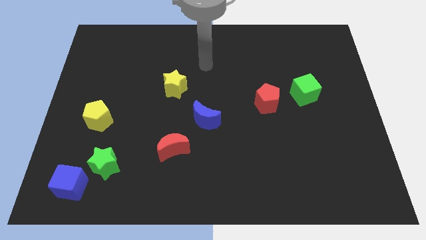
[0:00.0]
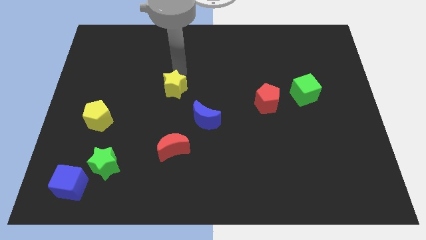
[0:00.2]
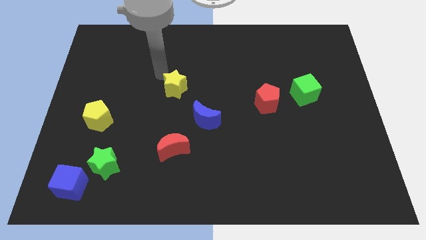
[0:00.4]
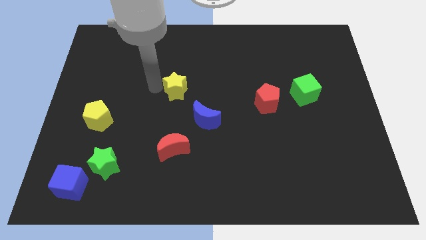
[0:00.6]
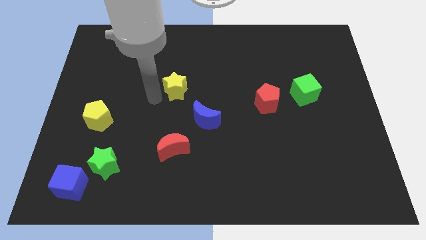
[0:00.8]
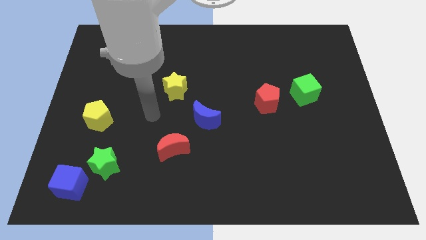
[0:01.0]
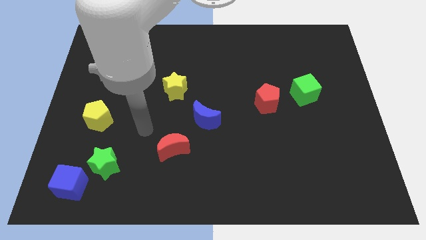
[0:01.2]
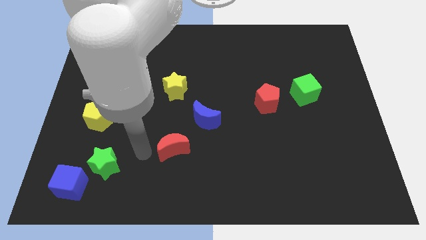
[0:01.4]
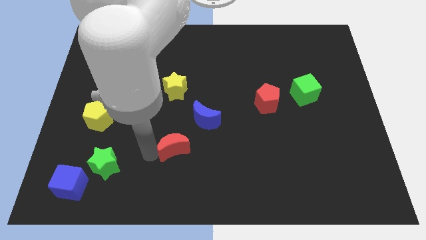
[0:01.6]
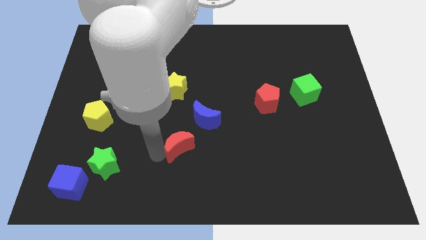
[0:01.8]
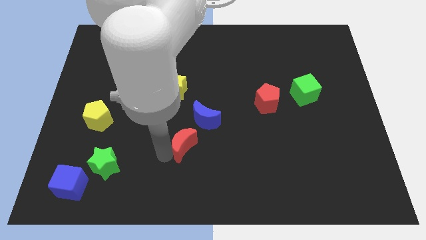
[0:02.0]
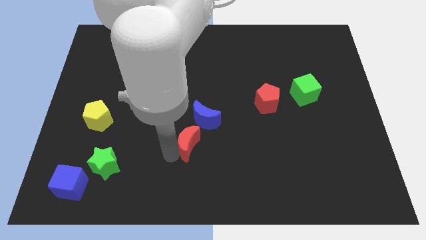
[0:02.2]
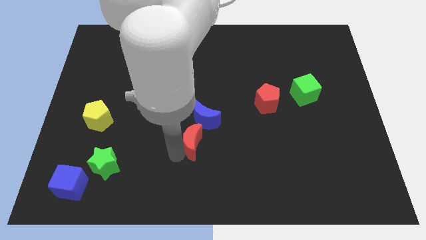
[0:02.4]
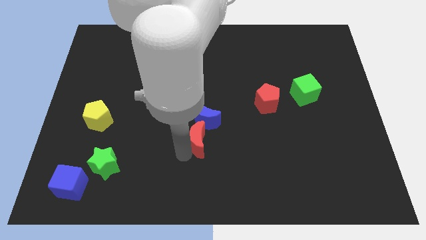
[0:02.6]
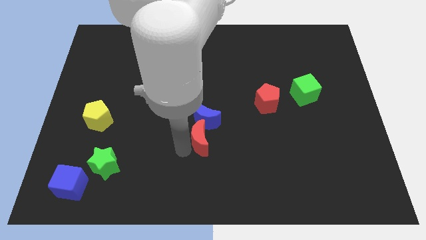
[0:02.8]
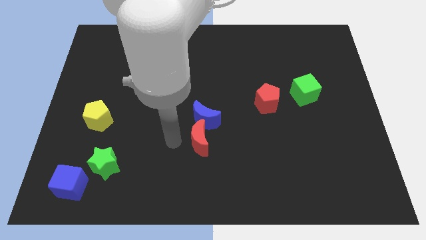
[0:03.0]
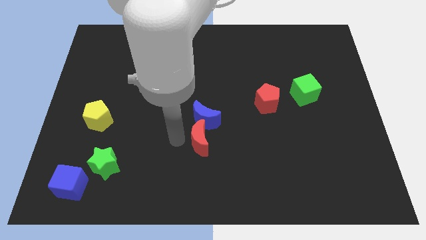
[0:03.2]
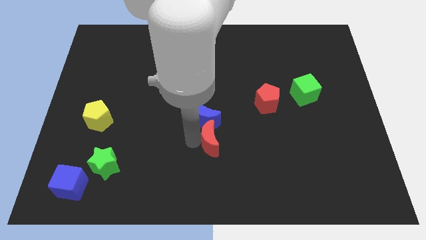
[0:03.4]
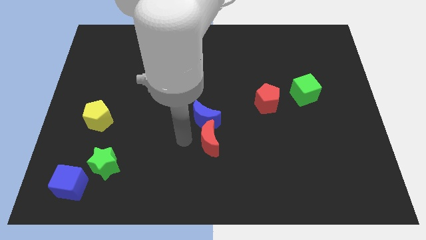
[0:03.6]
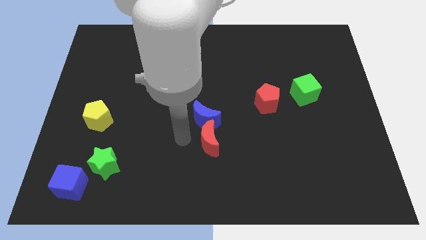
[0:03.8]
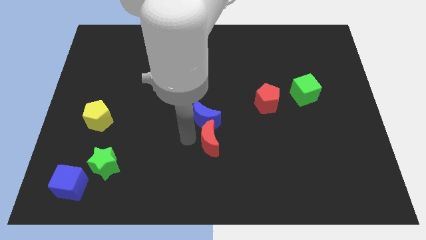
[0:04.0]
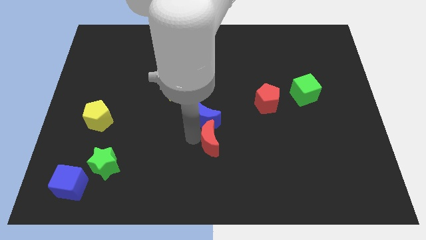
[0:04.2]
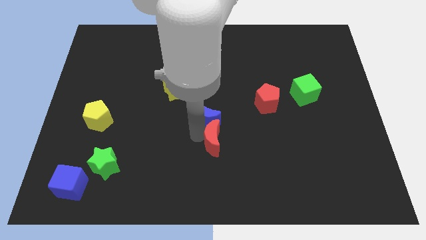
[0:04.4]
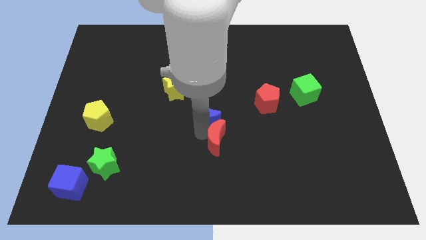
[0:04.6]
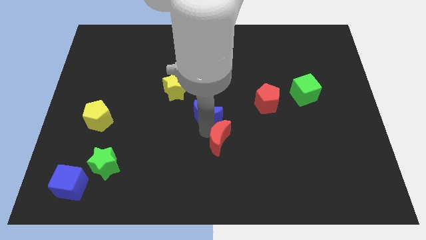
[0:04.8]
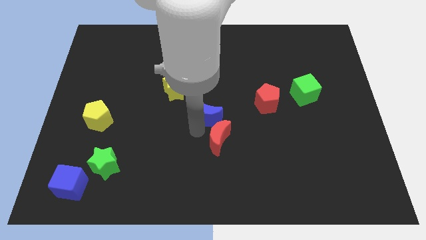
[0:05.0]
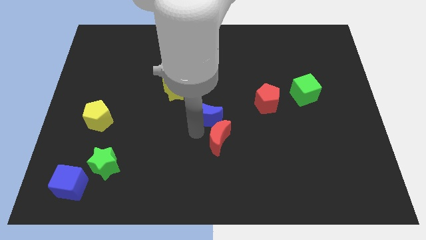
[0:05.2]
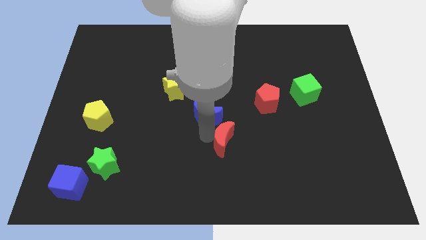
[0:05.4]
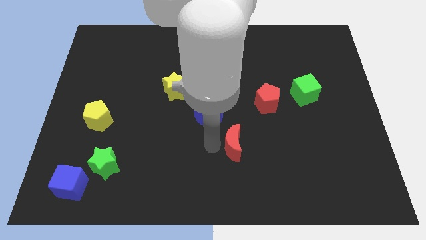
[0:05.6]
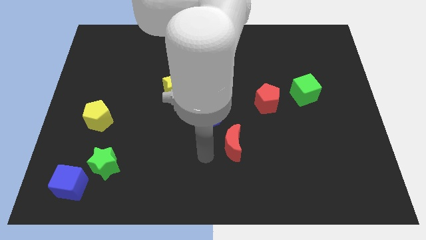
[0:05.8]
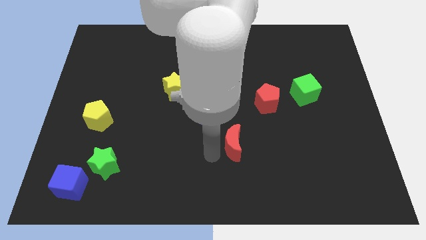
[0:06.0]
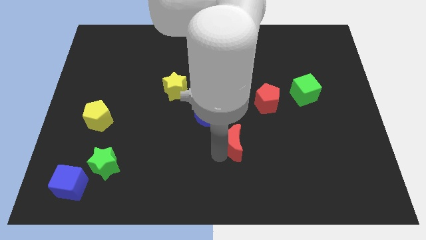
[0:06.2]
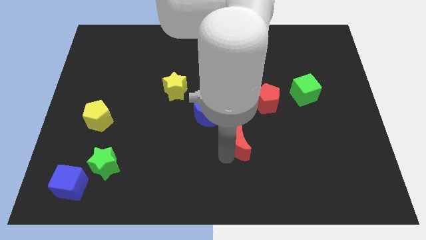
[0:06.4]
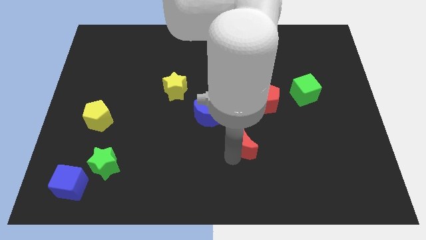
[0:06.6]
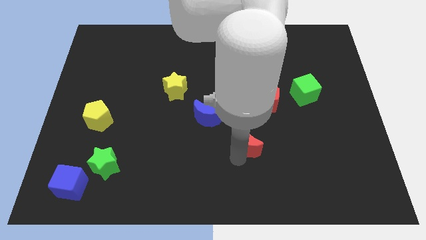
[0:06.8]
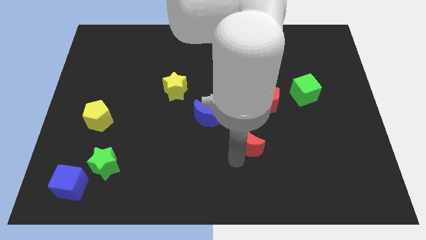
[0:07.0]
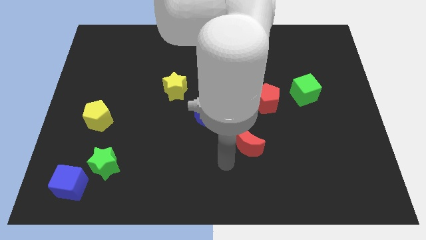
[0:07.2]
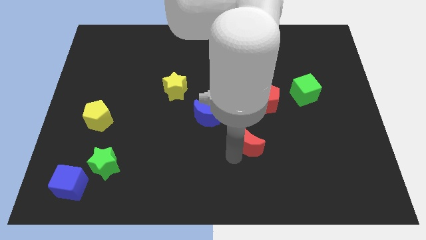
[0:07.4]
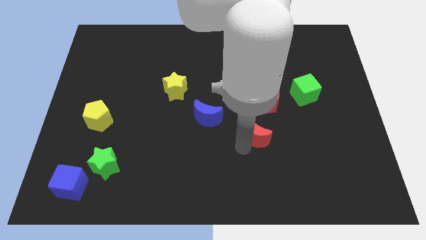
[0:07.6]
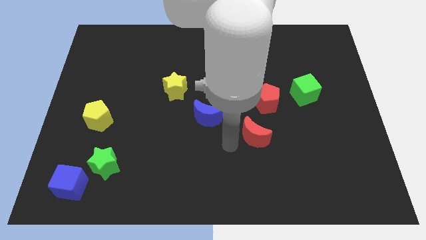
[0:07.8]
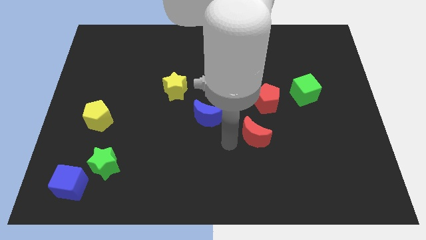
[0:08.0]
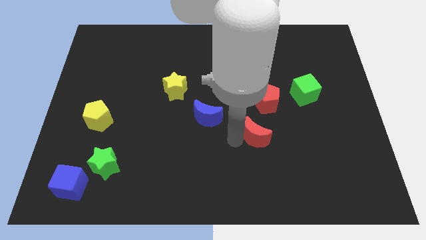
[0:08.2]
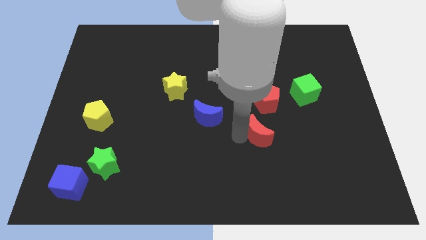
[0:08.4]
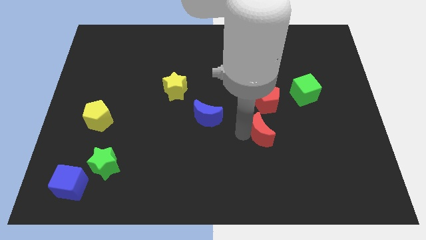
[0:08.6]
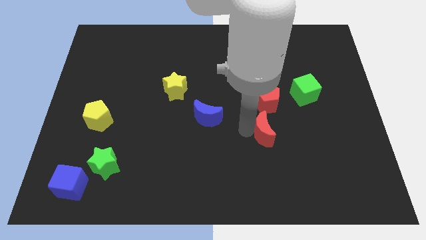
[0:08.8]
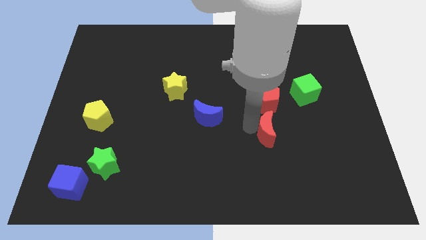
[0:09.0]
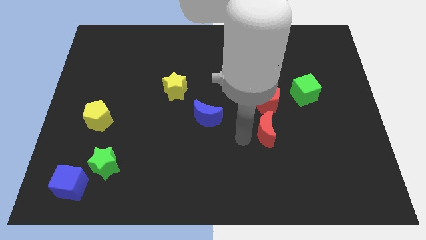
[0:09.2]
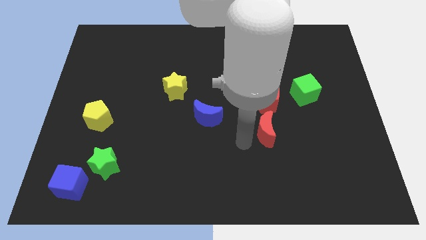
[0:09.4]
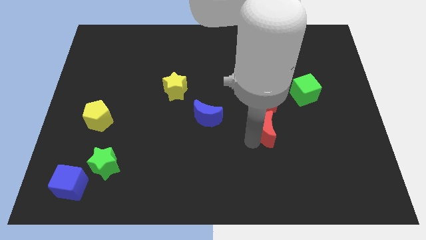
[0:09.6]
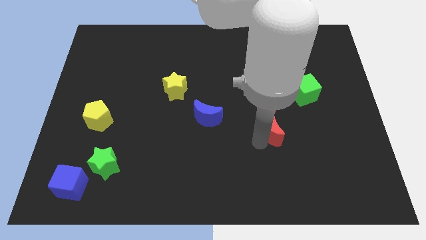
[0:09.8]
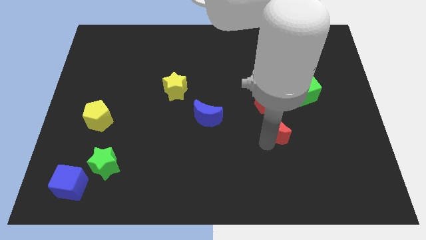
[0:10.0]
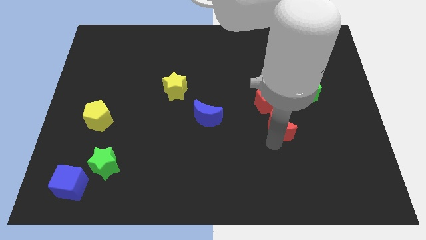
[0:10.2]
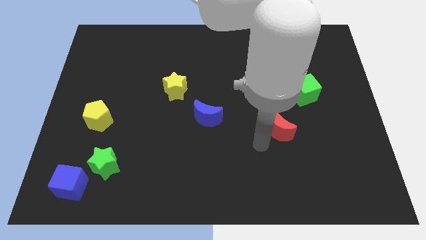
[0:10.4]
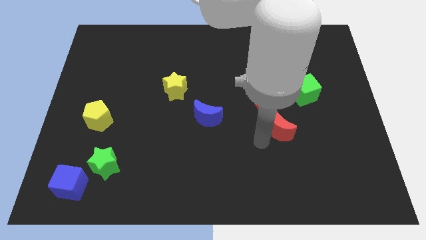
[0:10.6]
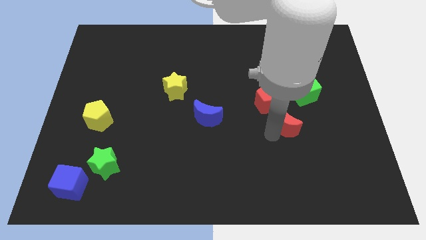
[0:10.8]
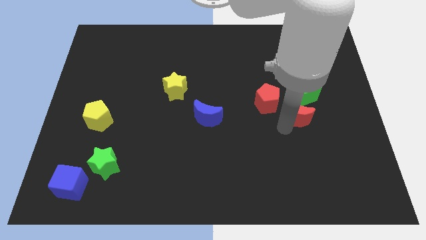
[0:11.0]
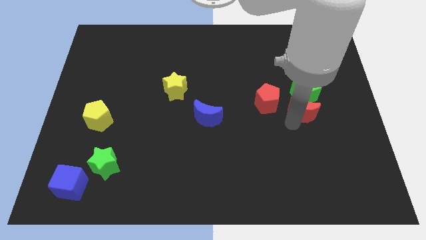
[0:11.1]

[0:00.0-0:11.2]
move the red moon next to the green cube

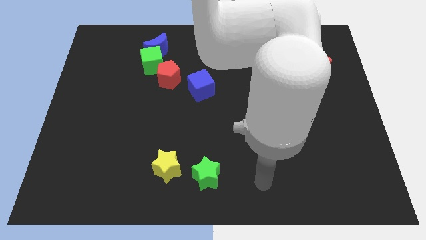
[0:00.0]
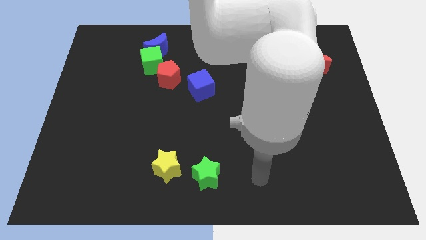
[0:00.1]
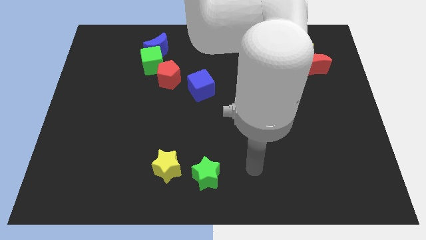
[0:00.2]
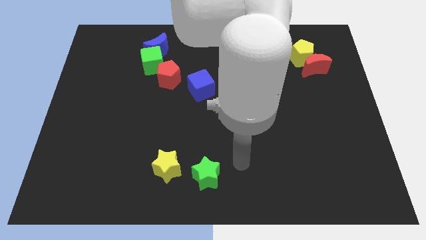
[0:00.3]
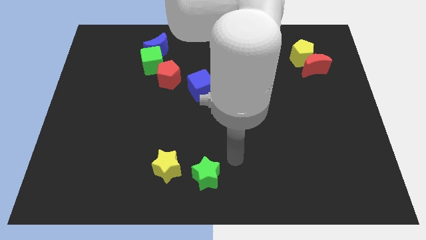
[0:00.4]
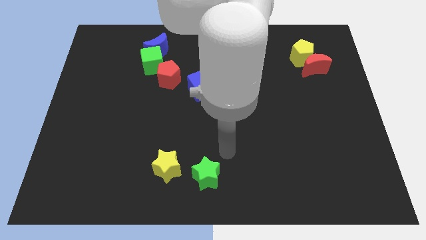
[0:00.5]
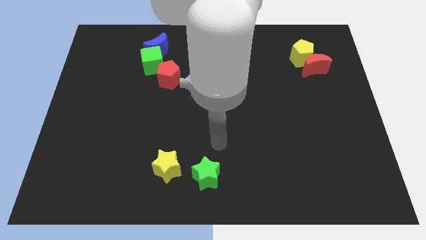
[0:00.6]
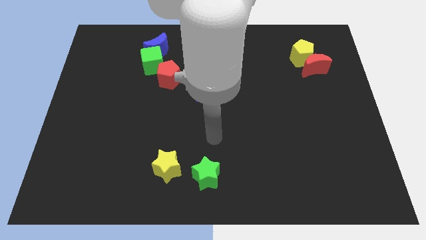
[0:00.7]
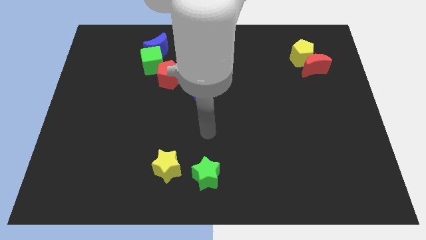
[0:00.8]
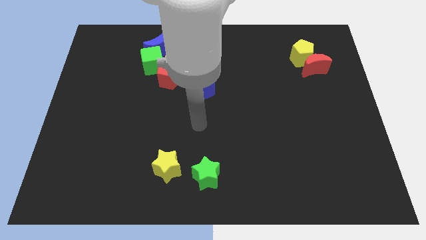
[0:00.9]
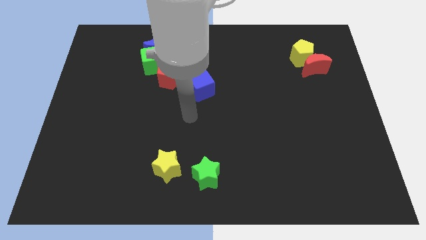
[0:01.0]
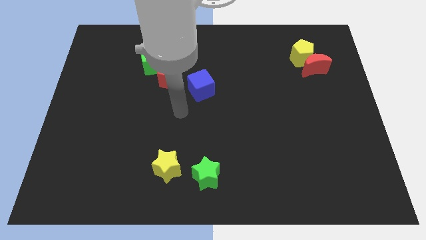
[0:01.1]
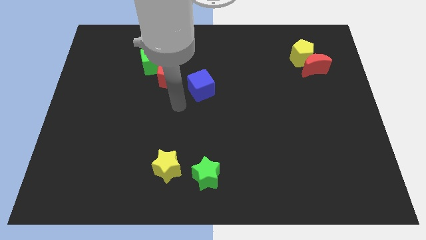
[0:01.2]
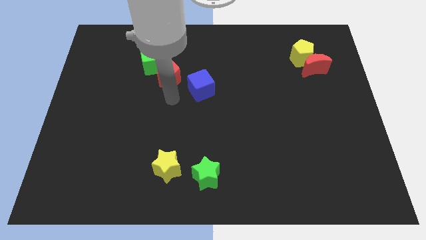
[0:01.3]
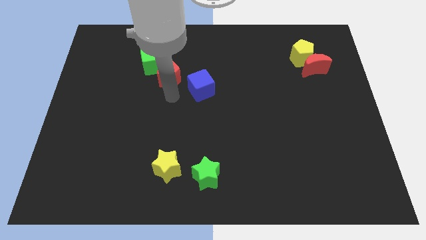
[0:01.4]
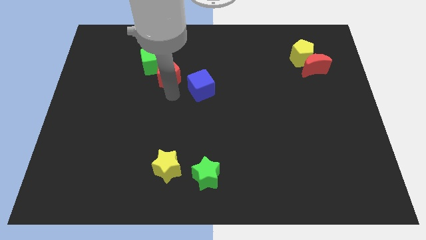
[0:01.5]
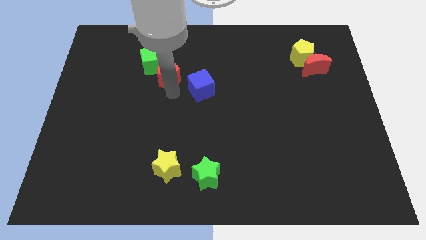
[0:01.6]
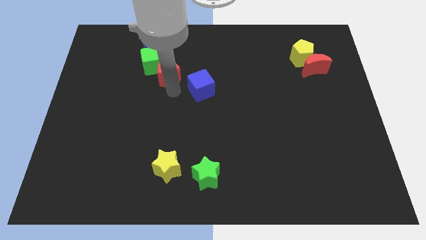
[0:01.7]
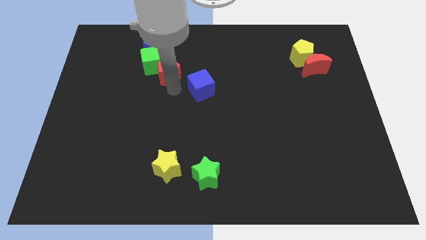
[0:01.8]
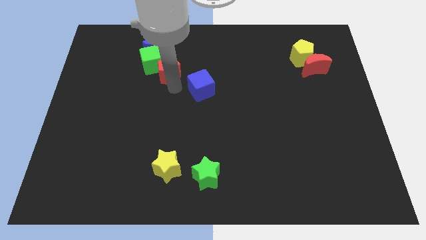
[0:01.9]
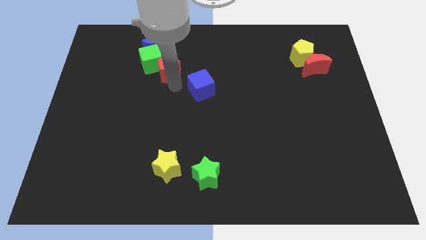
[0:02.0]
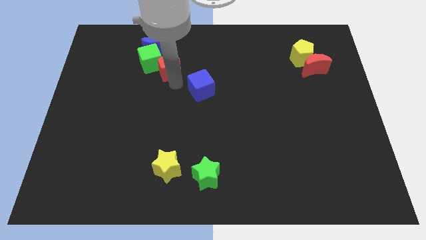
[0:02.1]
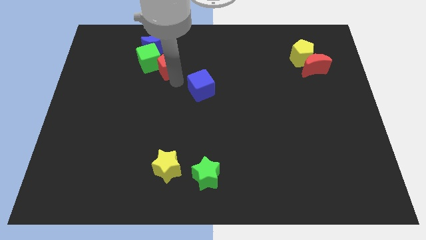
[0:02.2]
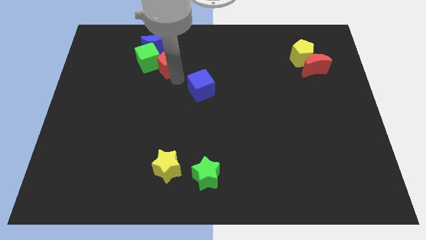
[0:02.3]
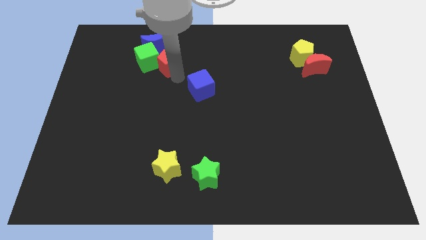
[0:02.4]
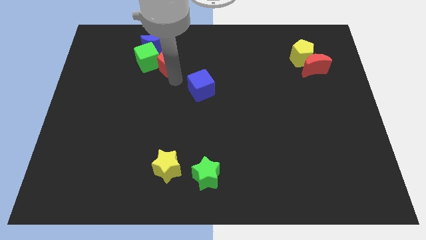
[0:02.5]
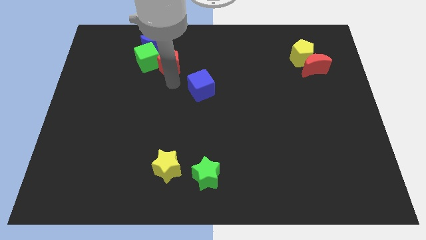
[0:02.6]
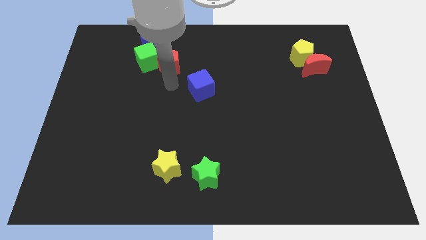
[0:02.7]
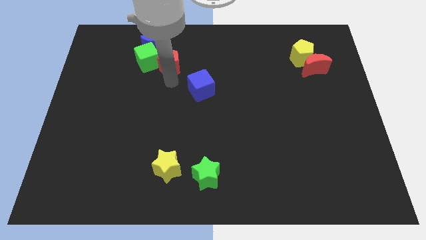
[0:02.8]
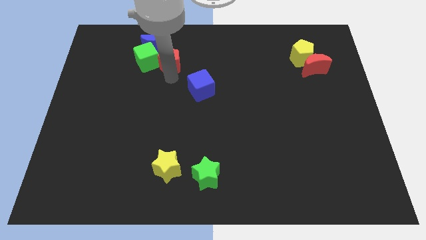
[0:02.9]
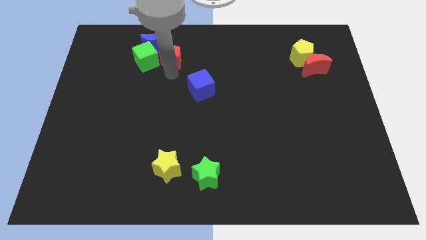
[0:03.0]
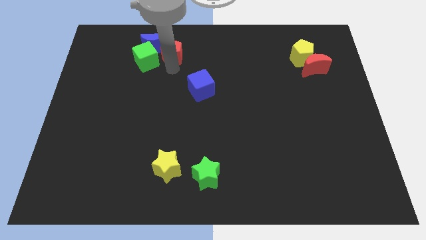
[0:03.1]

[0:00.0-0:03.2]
slide the red pentagon towards the blue moon
